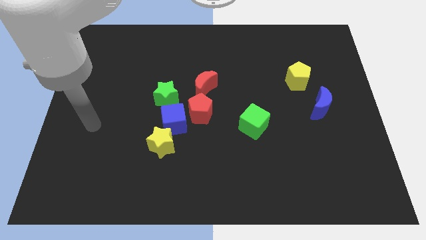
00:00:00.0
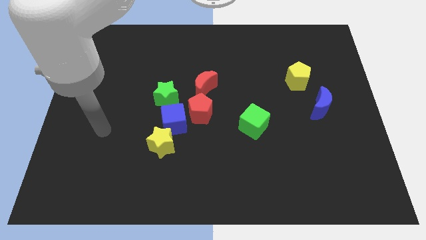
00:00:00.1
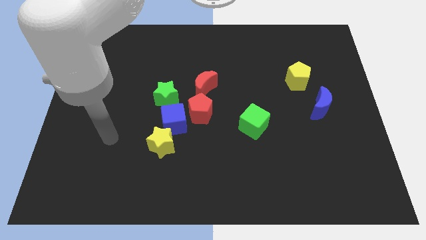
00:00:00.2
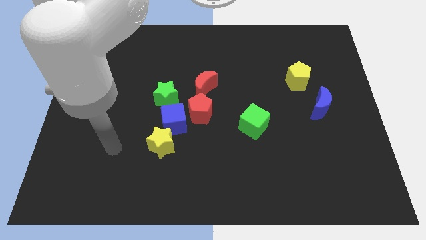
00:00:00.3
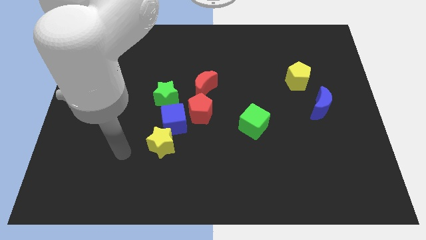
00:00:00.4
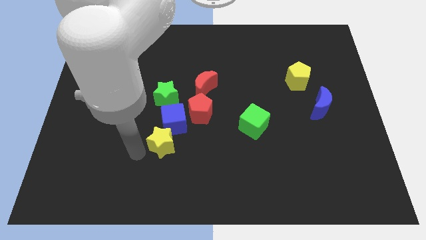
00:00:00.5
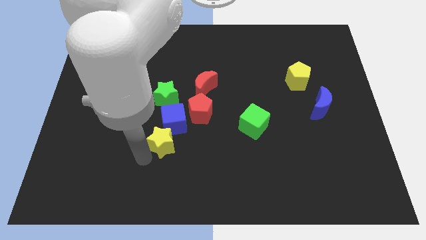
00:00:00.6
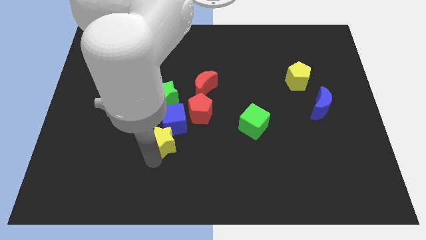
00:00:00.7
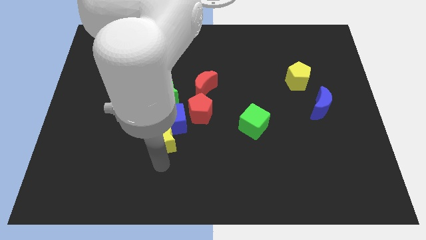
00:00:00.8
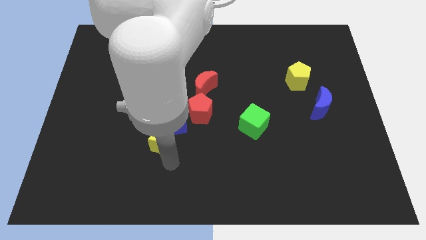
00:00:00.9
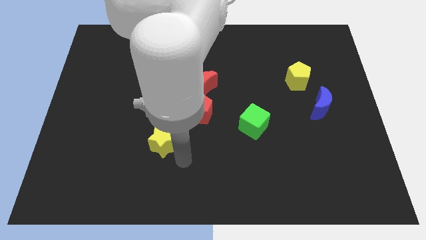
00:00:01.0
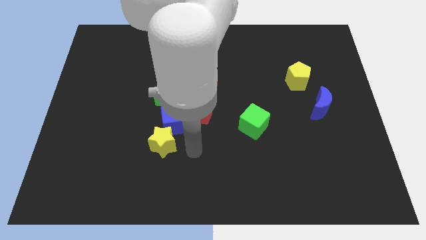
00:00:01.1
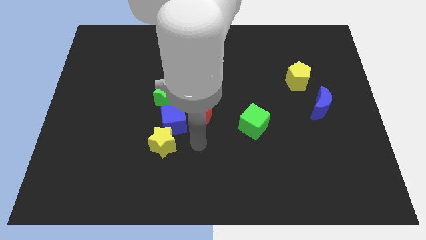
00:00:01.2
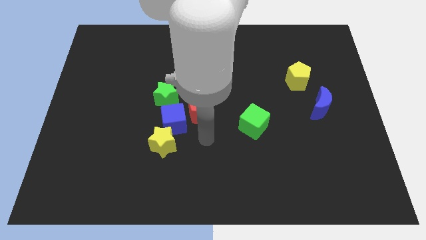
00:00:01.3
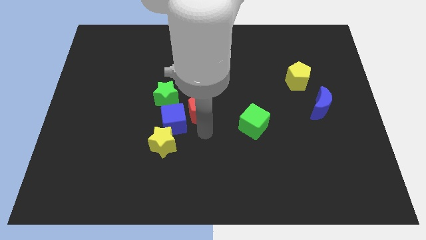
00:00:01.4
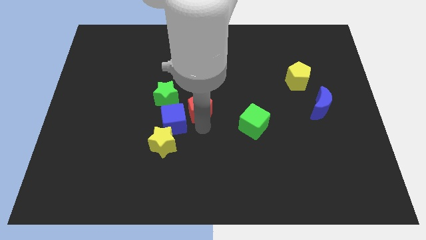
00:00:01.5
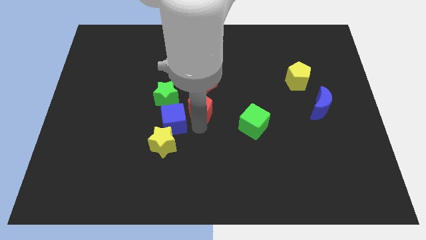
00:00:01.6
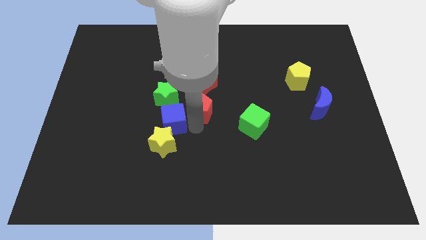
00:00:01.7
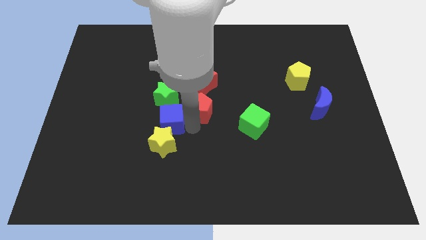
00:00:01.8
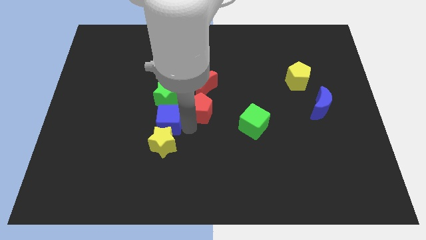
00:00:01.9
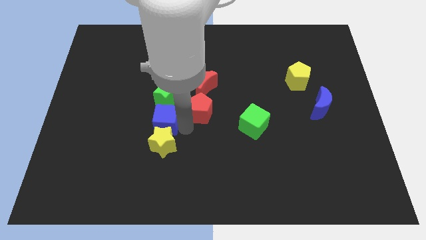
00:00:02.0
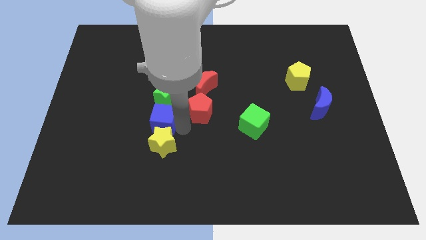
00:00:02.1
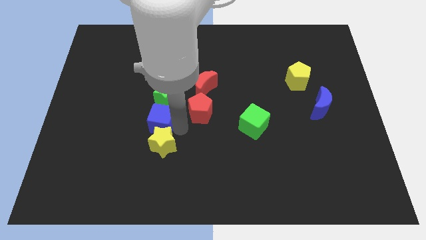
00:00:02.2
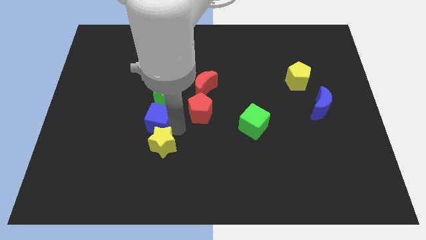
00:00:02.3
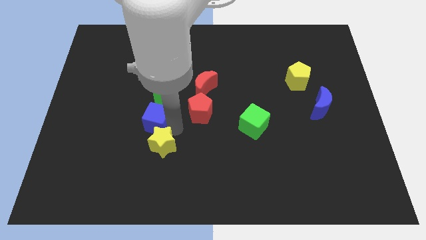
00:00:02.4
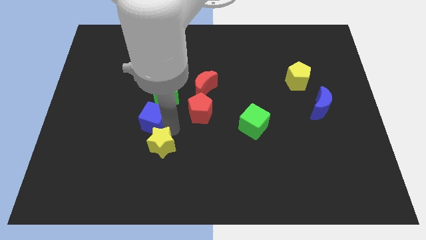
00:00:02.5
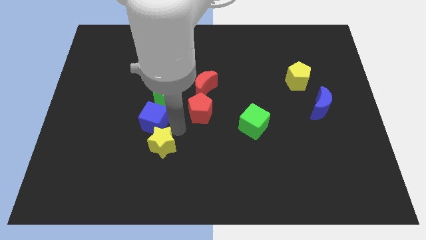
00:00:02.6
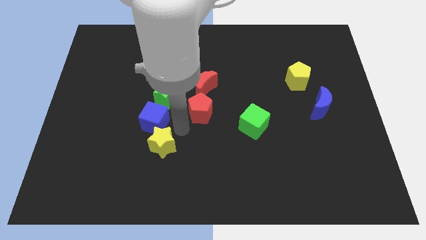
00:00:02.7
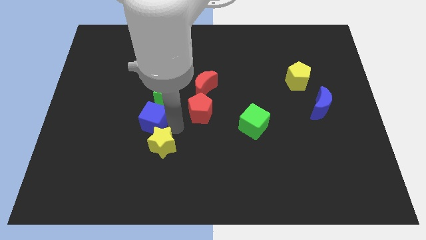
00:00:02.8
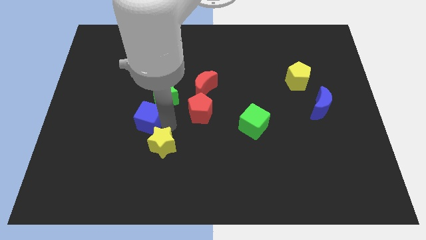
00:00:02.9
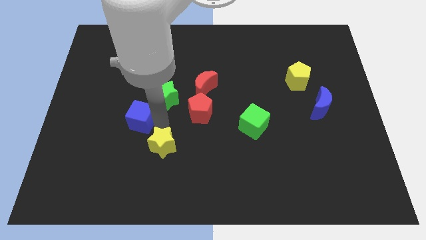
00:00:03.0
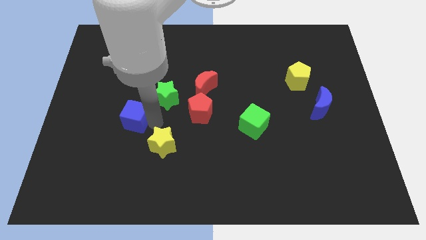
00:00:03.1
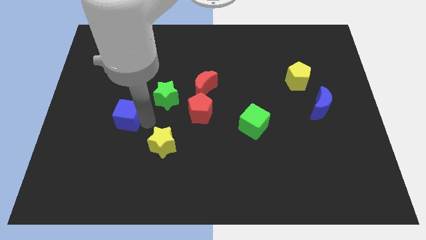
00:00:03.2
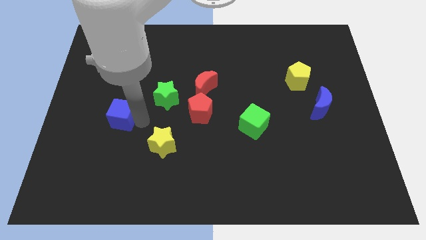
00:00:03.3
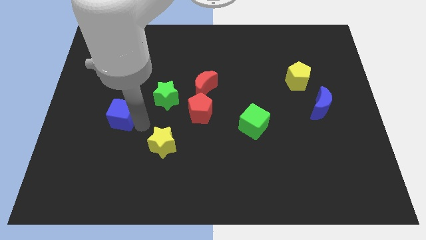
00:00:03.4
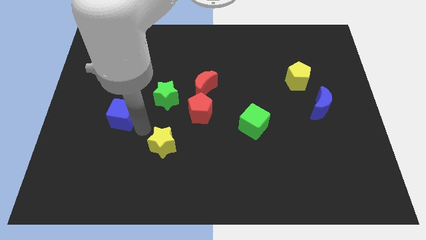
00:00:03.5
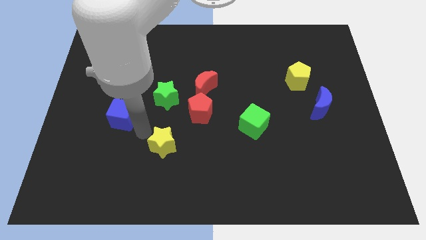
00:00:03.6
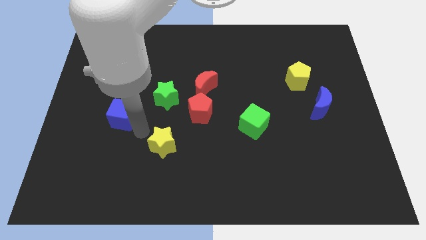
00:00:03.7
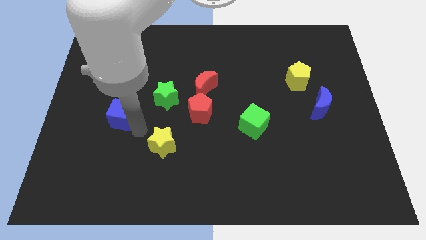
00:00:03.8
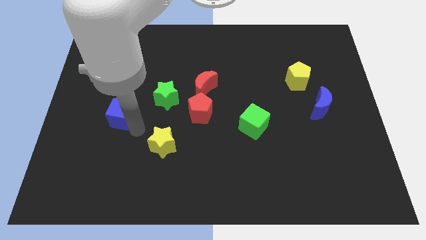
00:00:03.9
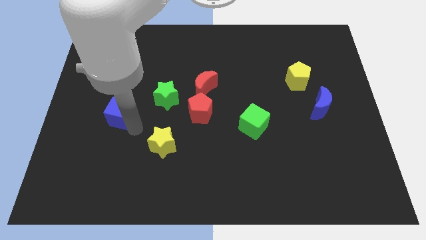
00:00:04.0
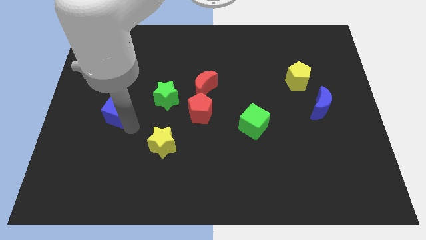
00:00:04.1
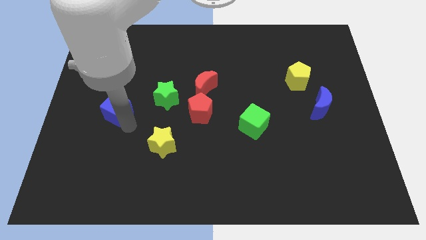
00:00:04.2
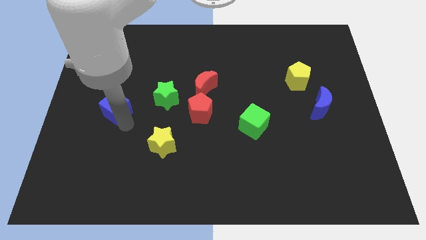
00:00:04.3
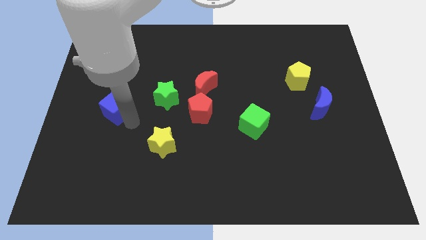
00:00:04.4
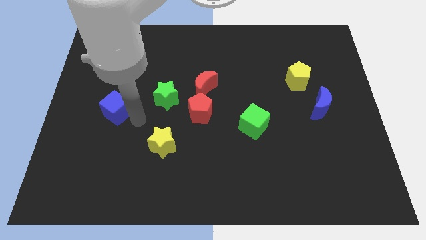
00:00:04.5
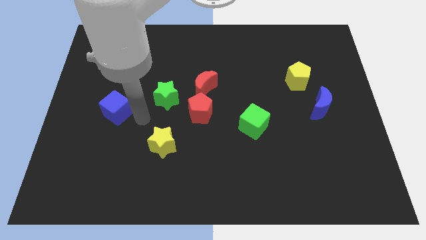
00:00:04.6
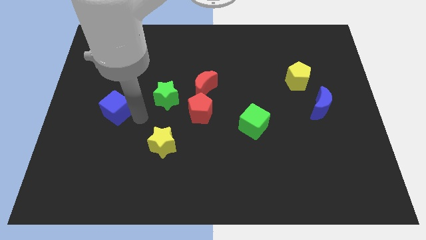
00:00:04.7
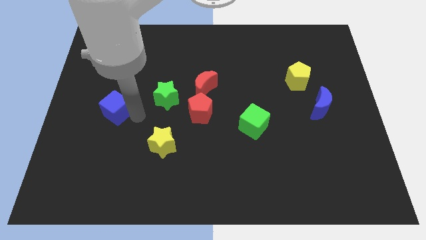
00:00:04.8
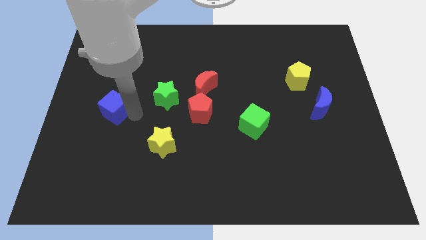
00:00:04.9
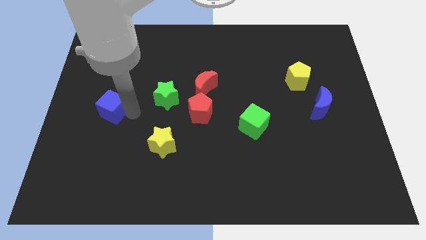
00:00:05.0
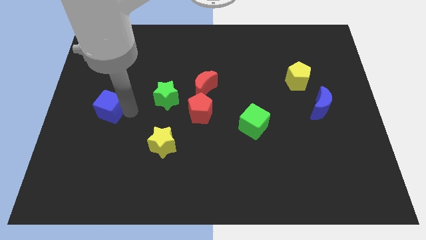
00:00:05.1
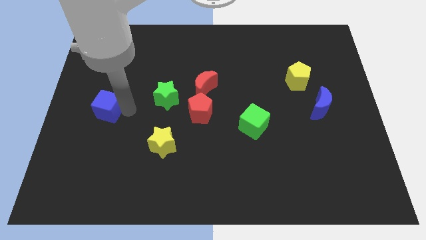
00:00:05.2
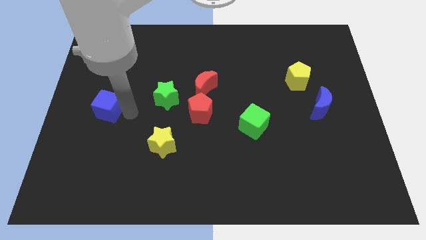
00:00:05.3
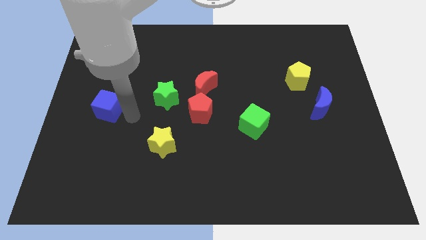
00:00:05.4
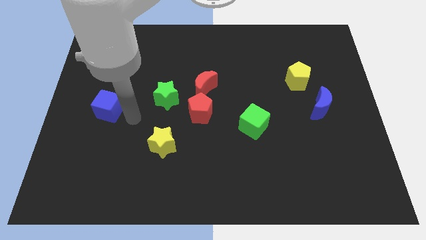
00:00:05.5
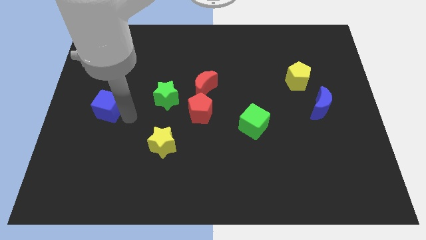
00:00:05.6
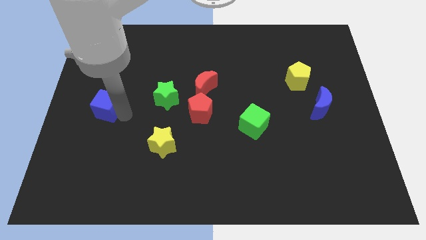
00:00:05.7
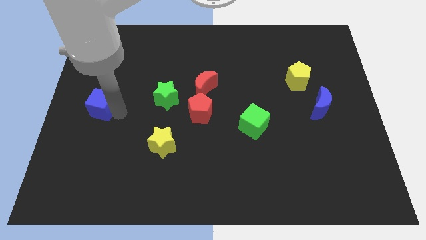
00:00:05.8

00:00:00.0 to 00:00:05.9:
move the blue cube to the center left

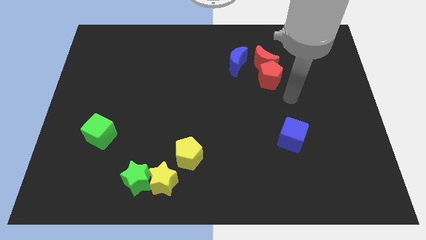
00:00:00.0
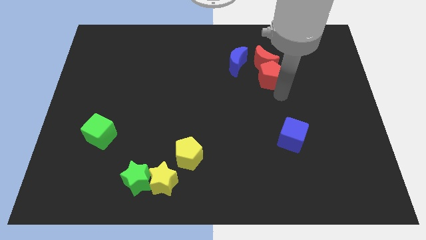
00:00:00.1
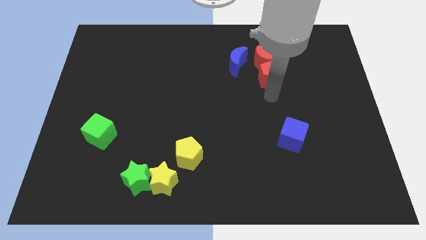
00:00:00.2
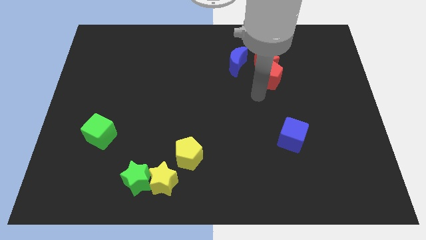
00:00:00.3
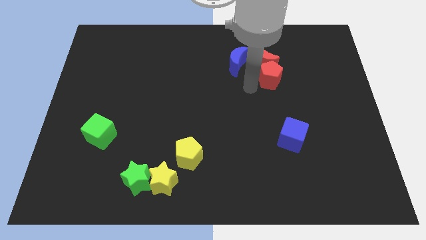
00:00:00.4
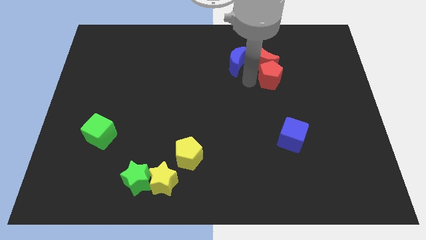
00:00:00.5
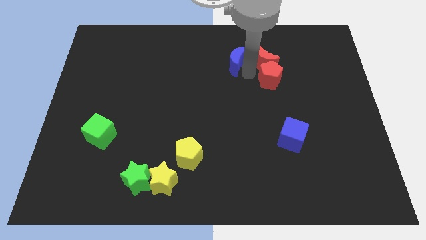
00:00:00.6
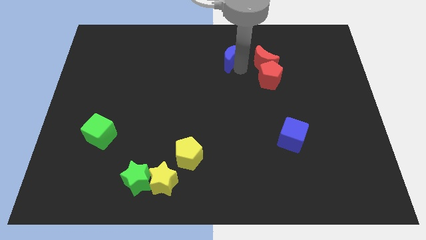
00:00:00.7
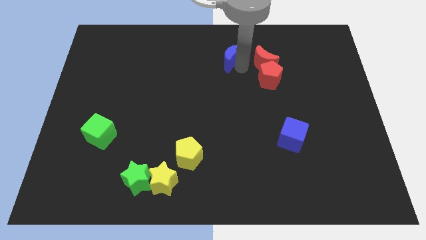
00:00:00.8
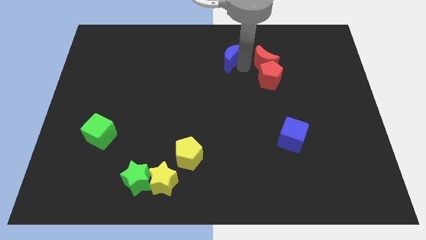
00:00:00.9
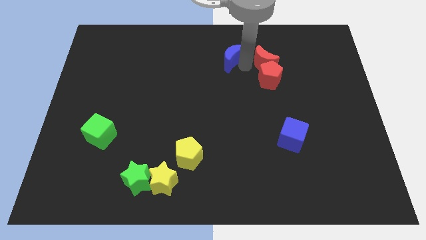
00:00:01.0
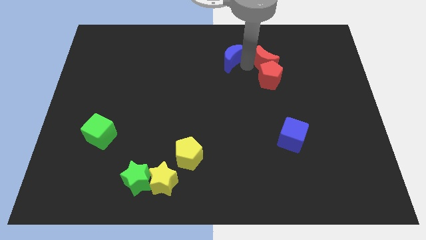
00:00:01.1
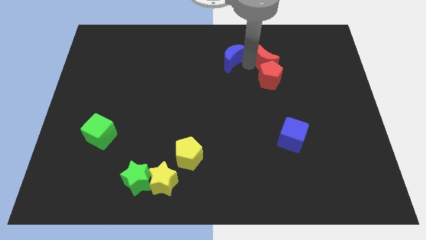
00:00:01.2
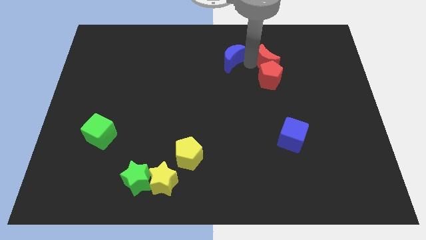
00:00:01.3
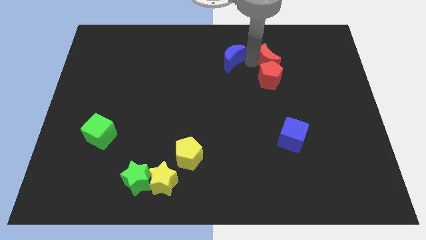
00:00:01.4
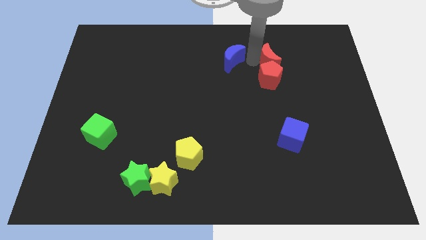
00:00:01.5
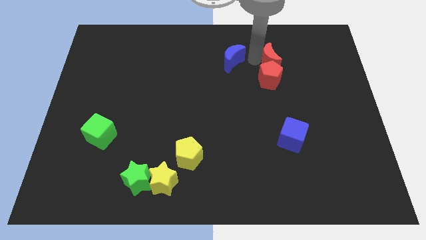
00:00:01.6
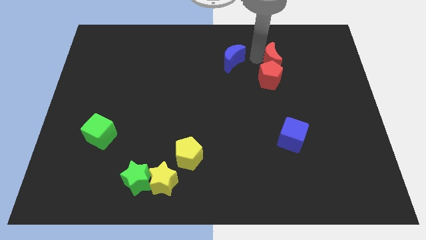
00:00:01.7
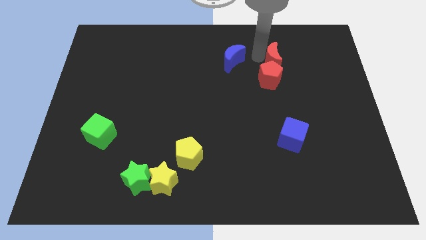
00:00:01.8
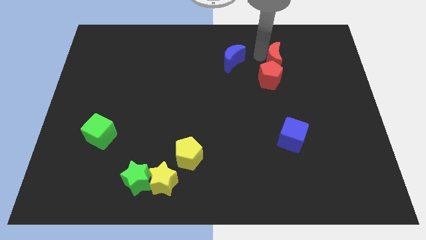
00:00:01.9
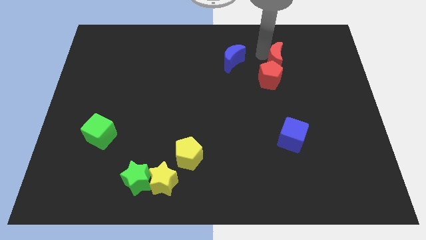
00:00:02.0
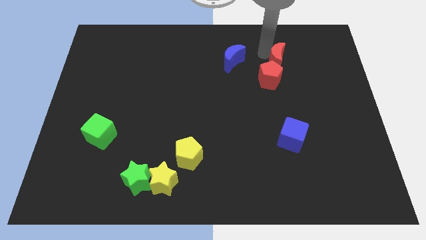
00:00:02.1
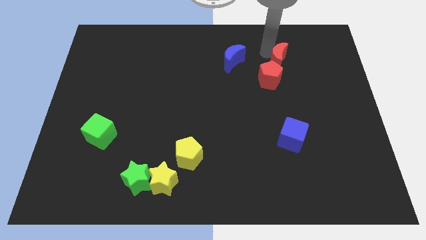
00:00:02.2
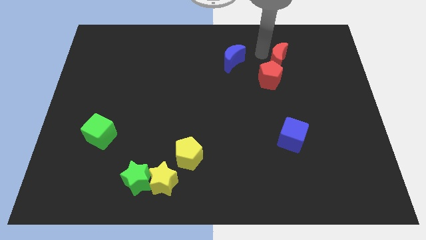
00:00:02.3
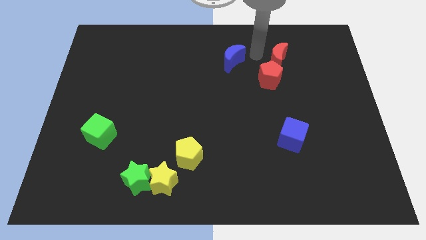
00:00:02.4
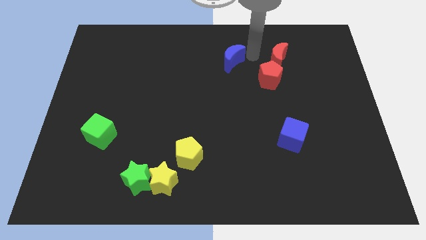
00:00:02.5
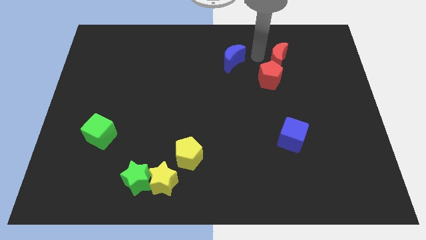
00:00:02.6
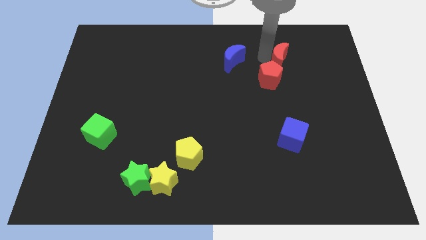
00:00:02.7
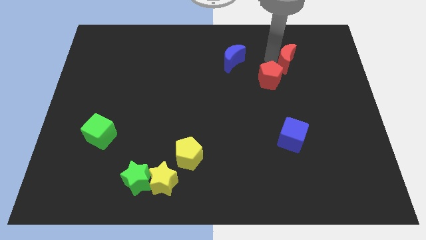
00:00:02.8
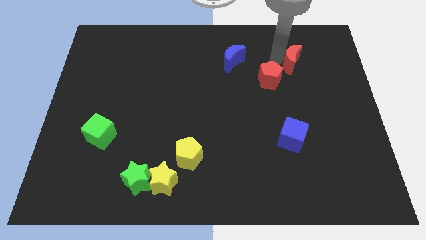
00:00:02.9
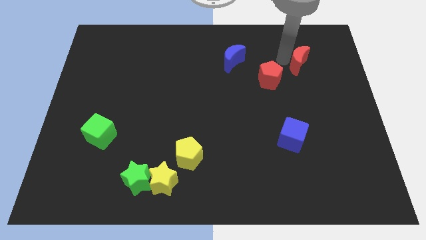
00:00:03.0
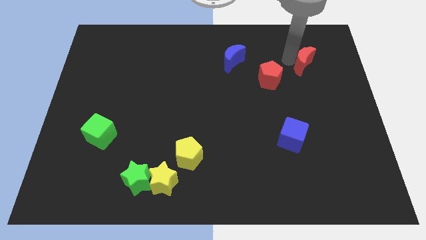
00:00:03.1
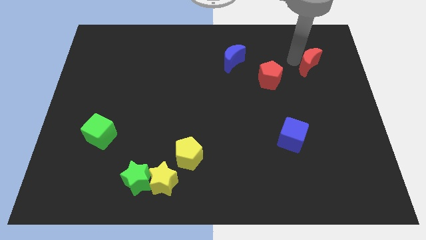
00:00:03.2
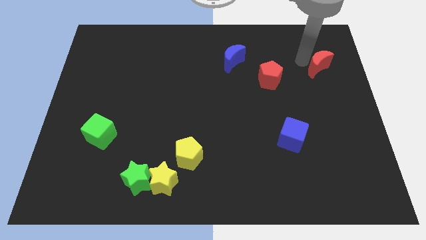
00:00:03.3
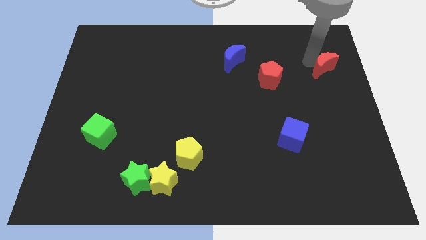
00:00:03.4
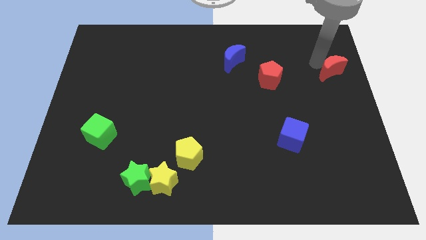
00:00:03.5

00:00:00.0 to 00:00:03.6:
slide the red moon to the center right
